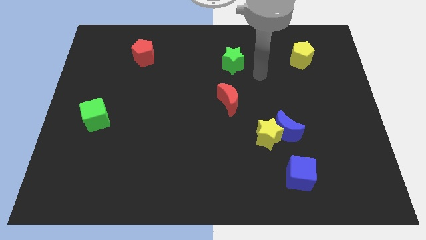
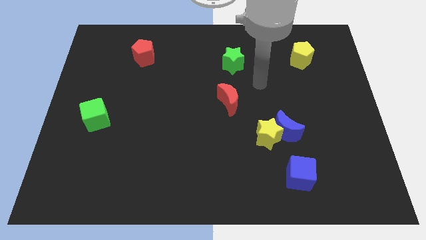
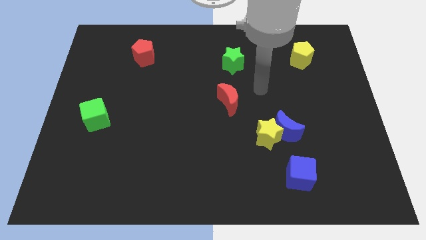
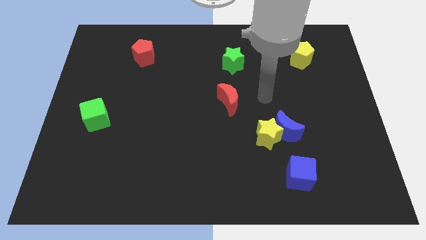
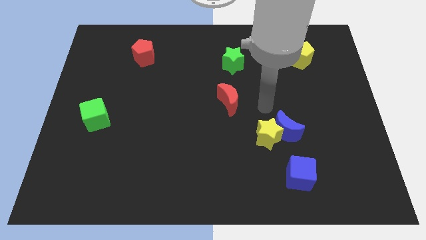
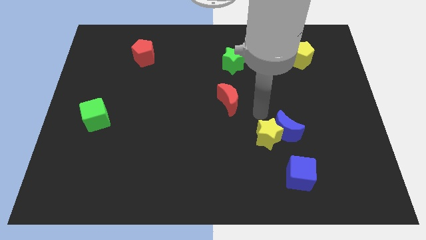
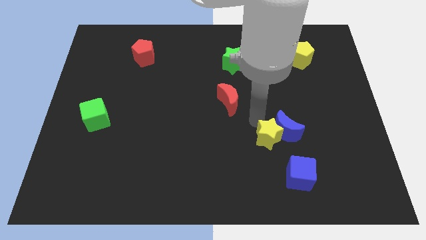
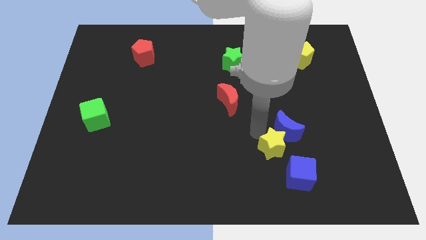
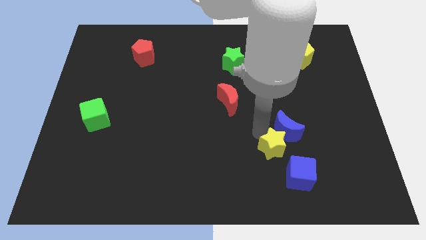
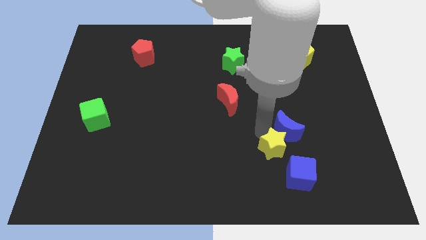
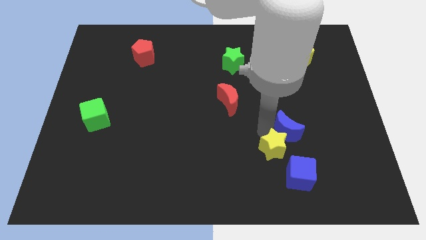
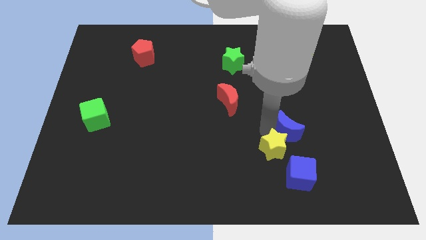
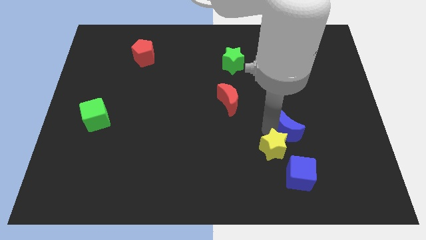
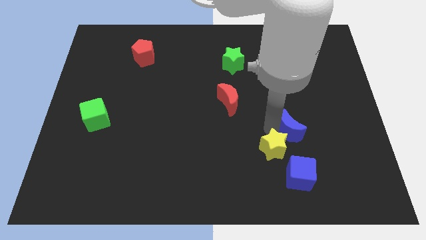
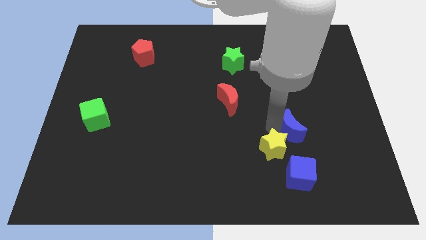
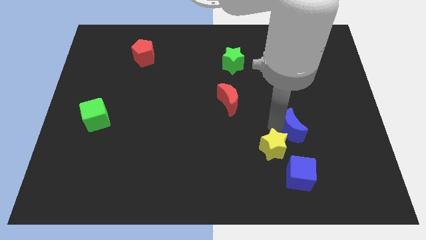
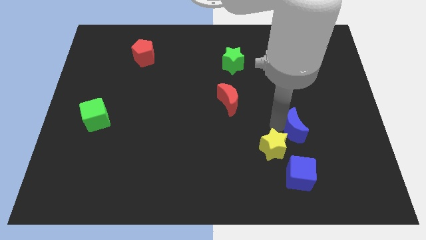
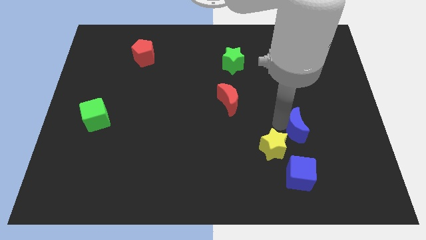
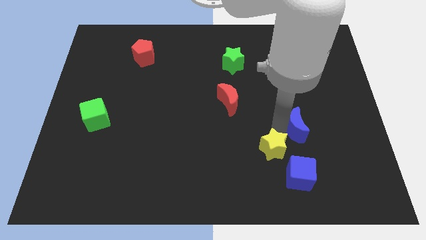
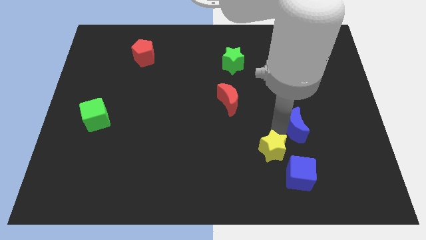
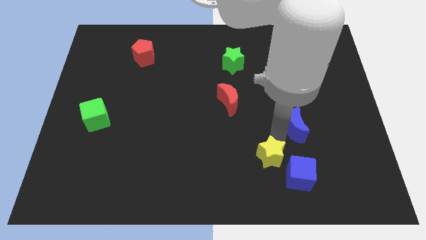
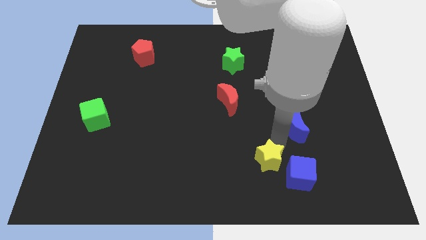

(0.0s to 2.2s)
pull the blue moon apart from the yellow star

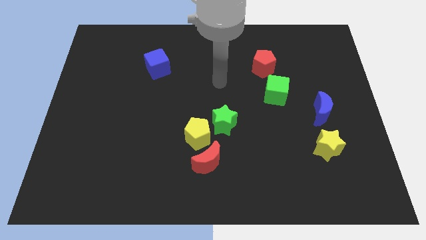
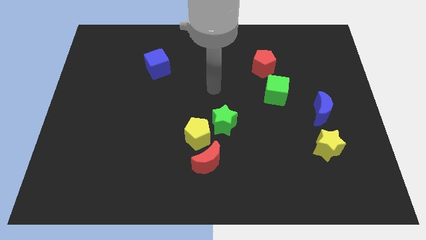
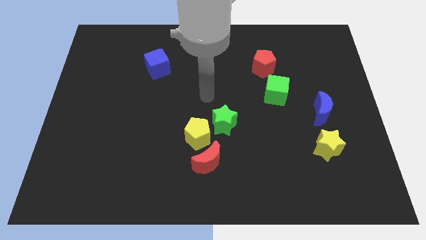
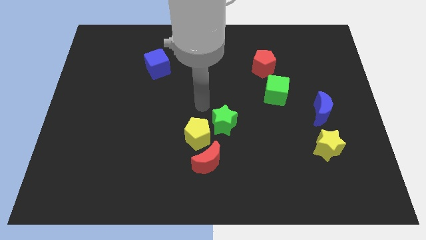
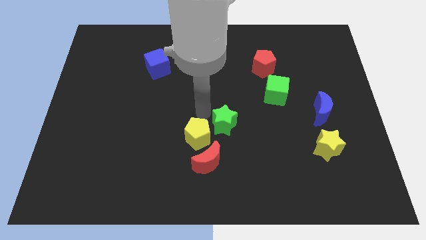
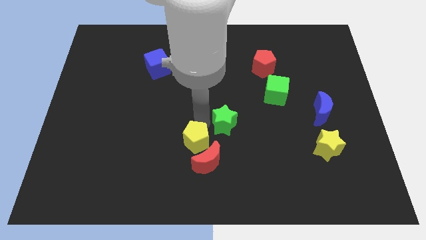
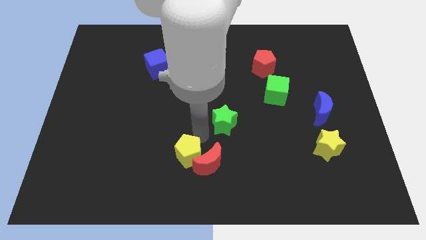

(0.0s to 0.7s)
pull the green star apart from the yellow pentagon

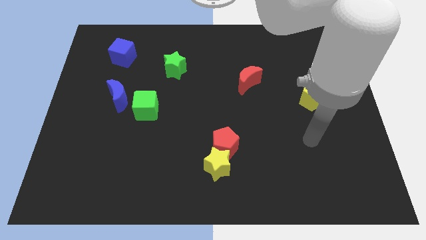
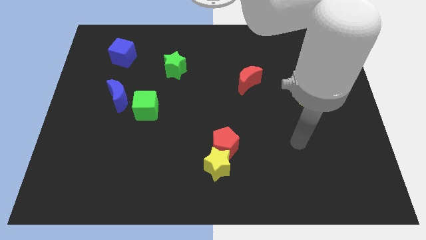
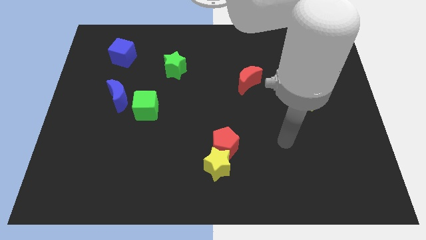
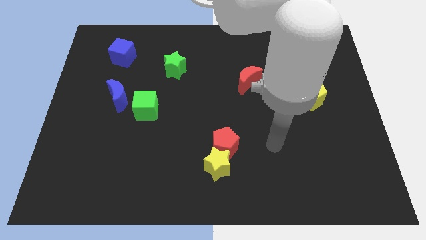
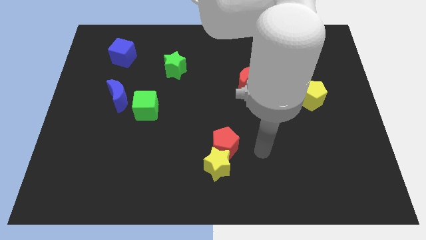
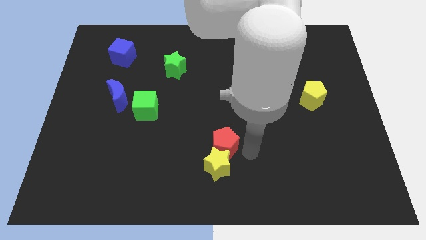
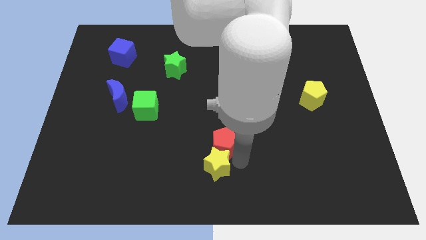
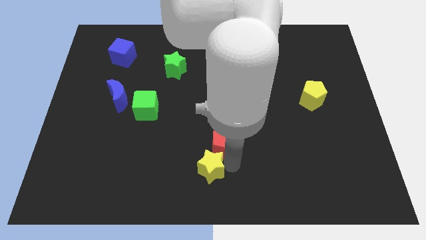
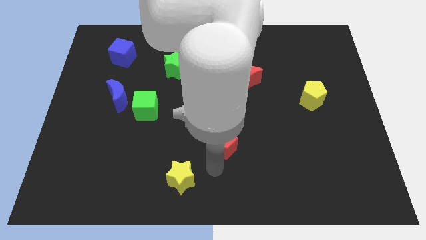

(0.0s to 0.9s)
move the red pentagon away from the yellow star

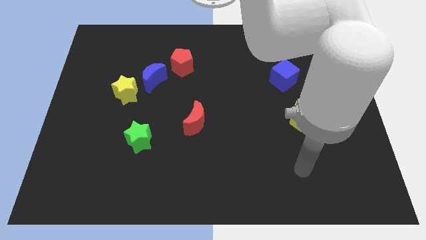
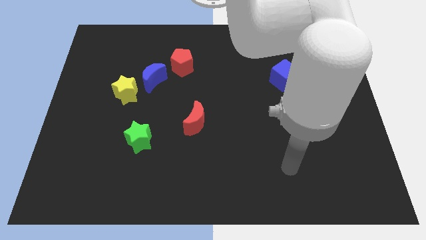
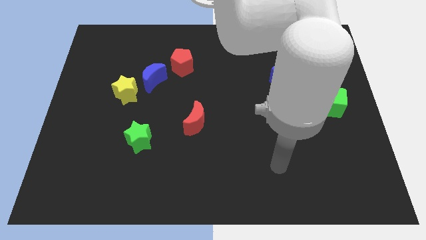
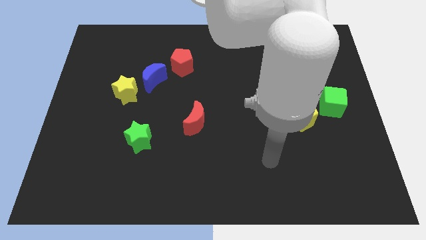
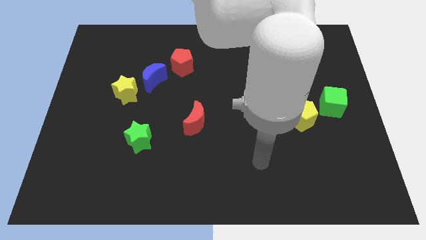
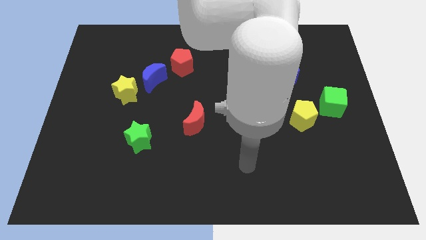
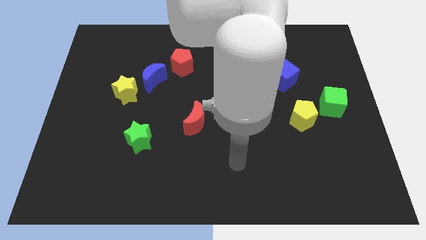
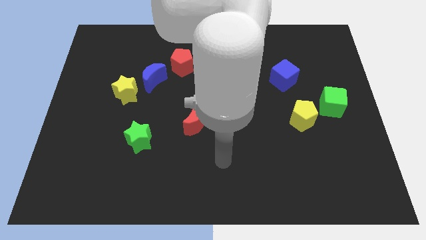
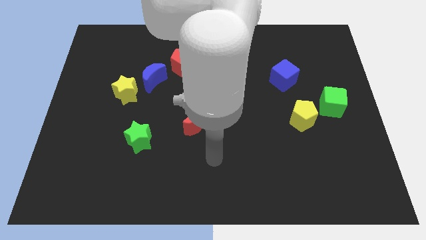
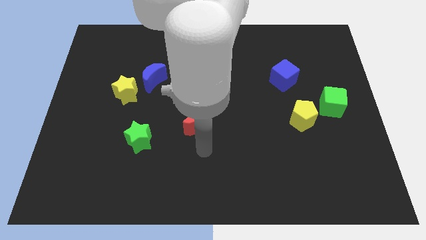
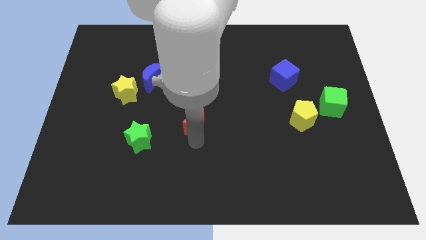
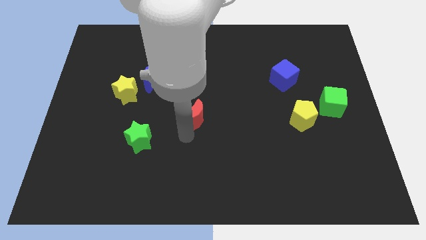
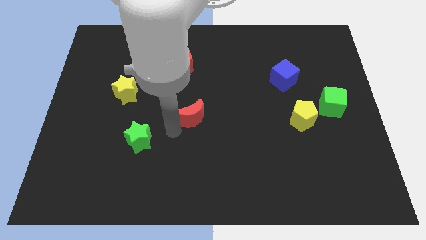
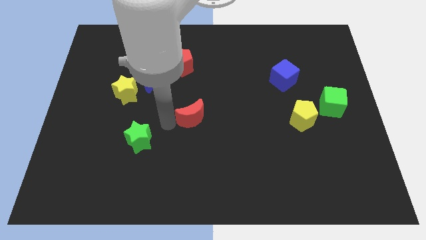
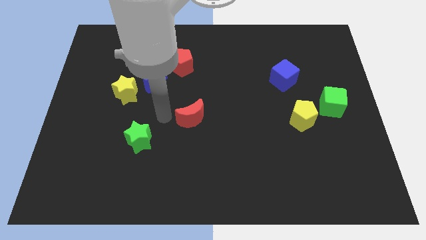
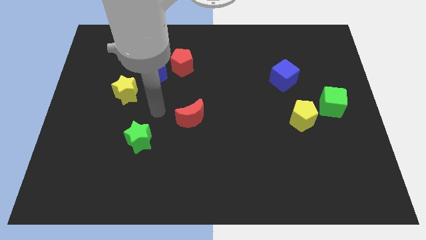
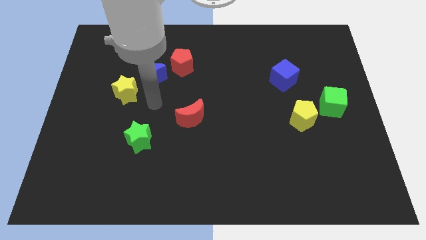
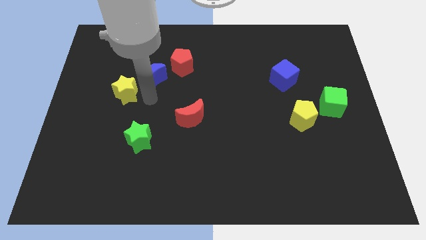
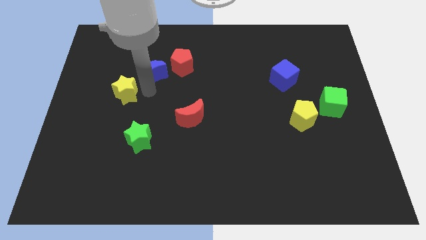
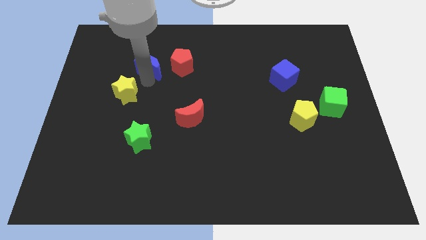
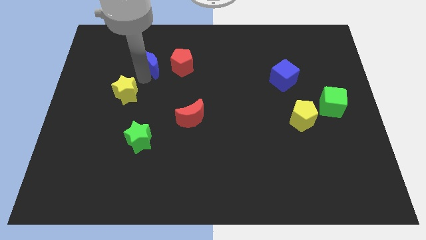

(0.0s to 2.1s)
move the yellow star away from the blue moon

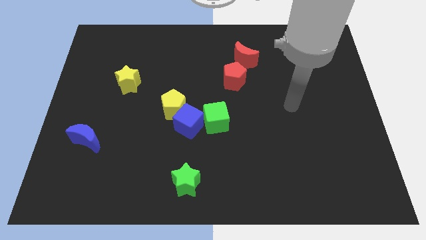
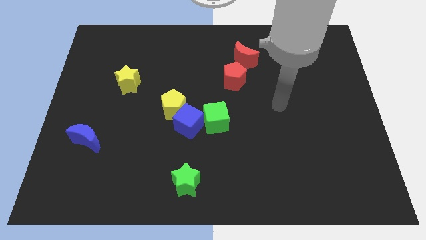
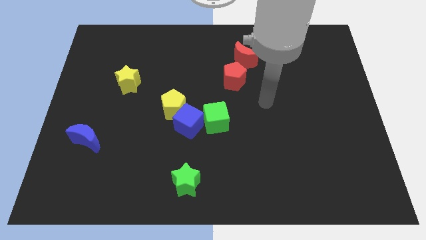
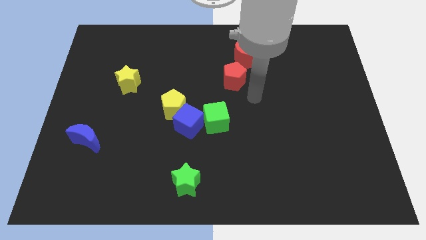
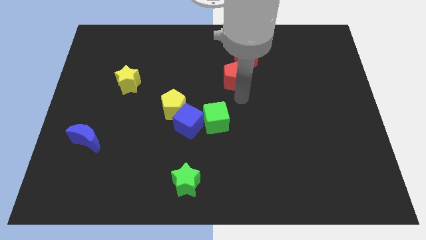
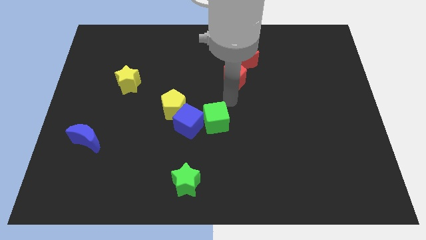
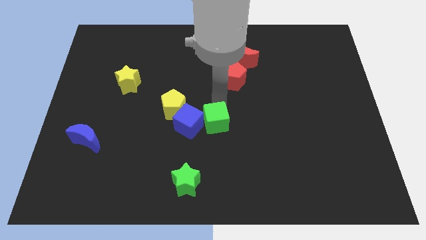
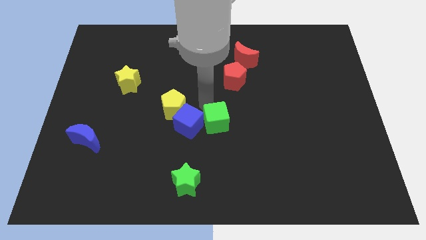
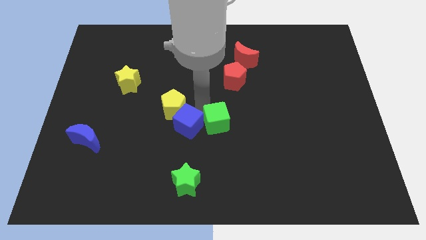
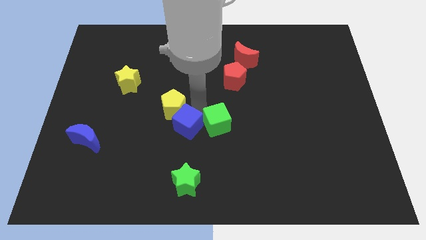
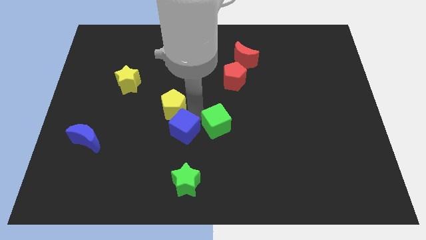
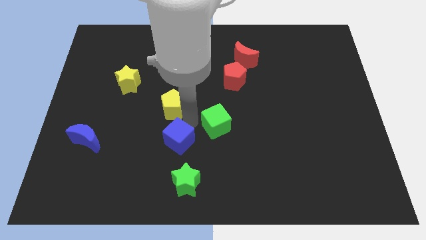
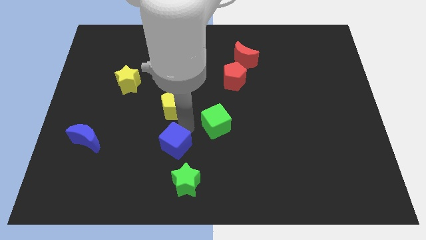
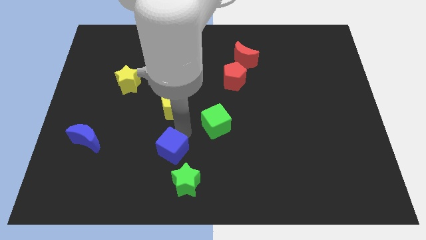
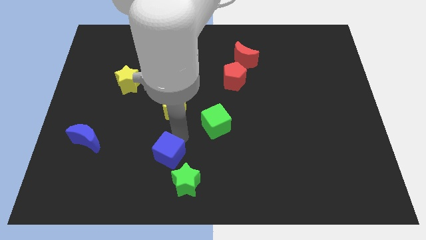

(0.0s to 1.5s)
pull the blue cube apart from the yellow pentagon and green cube

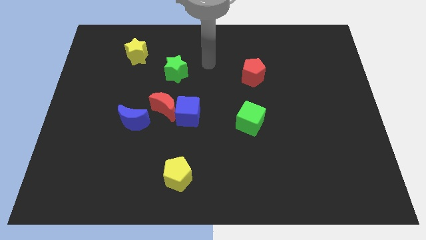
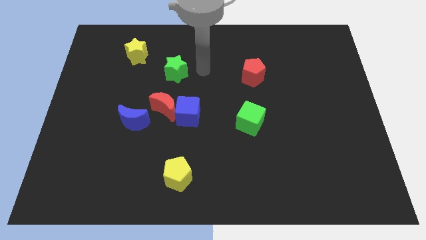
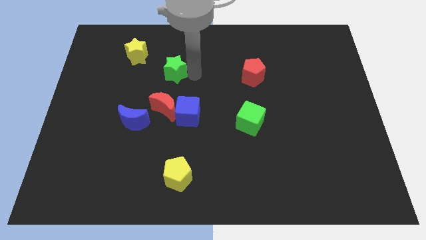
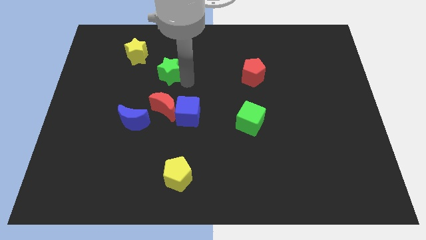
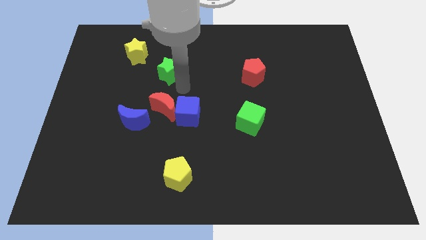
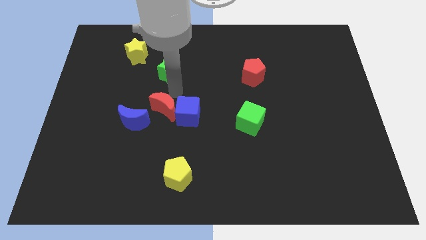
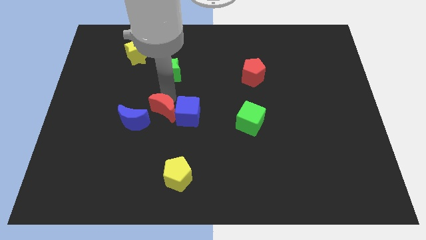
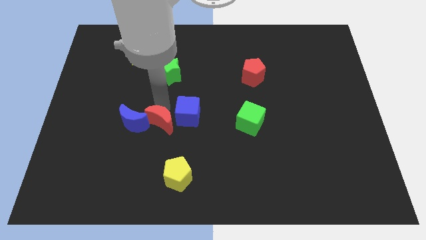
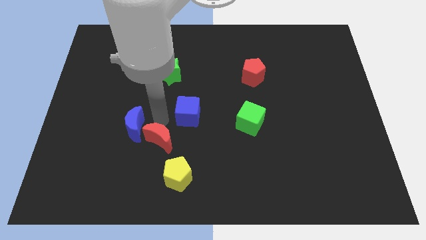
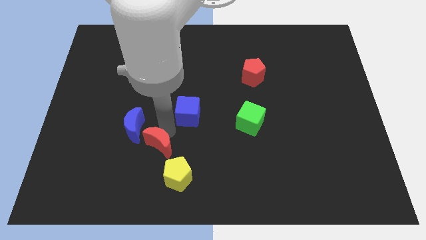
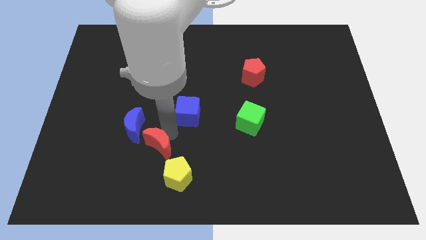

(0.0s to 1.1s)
separate the blue cube from the red moon

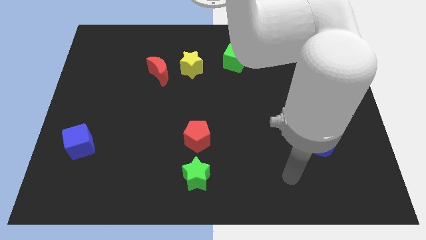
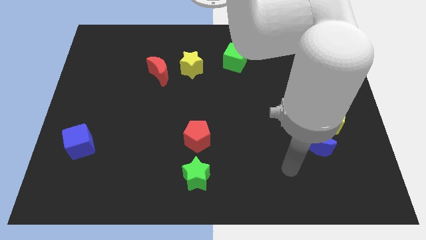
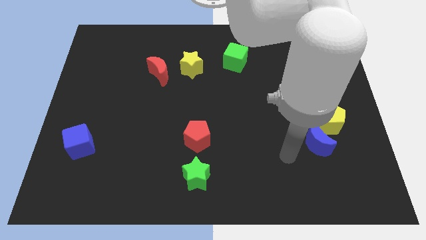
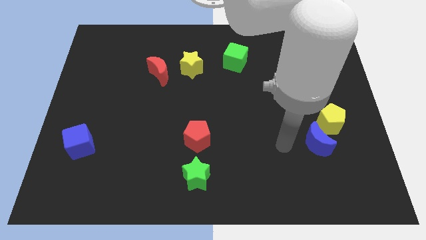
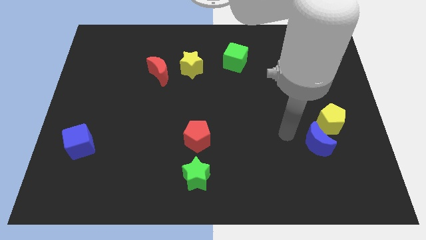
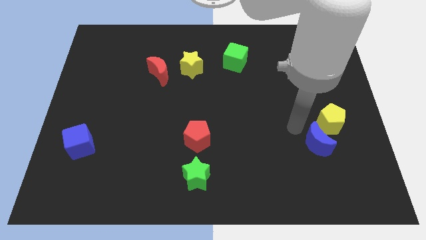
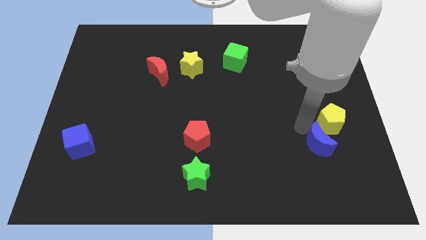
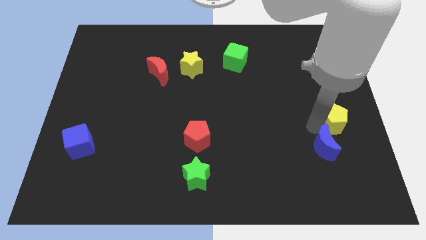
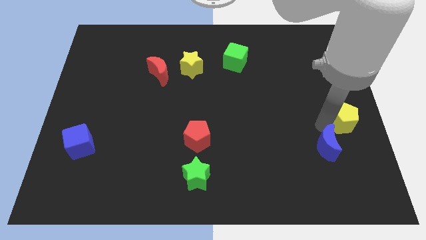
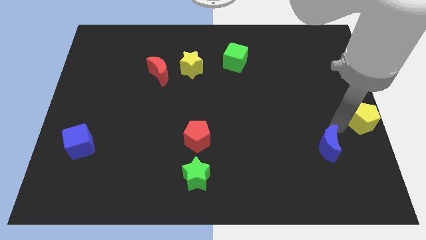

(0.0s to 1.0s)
move the blue moon away from the yellow pentagon
